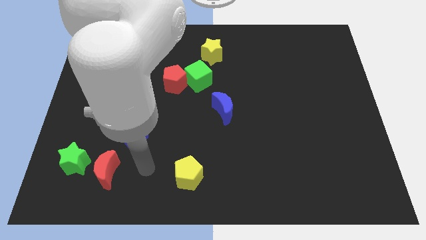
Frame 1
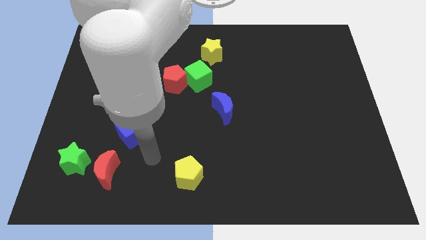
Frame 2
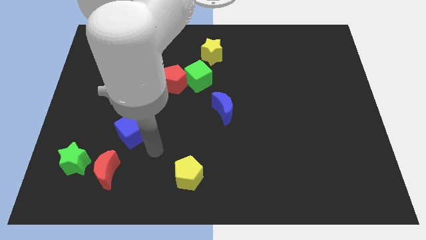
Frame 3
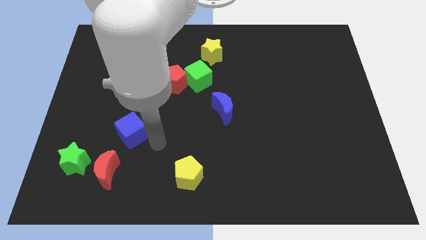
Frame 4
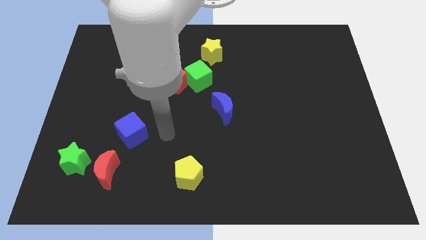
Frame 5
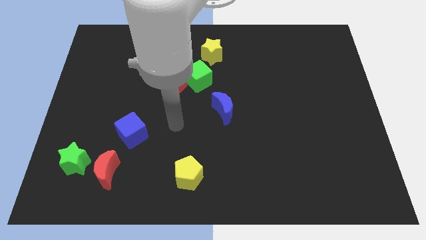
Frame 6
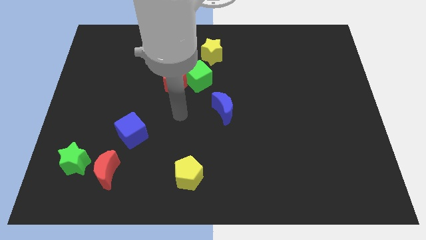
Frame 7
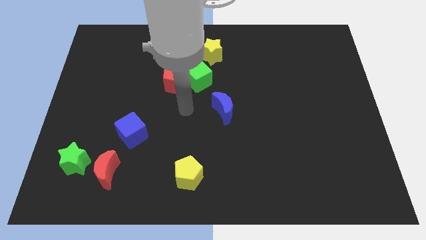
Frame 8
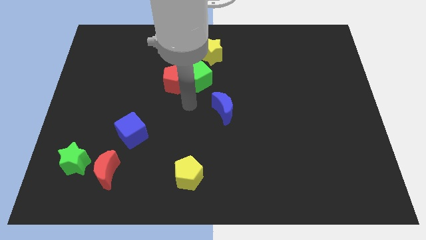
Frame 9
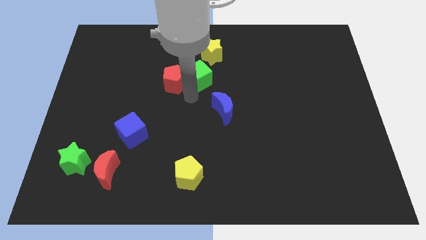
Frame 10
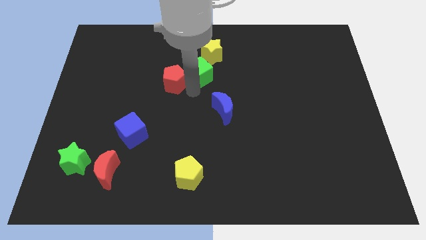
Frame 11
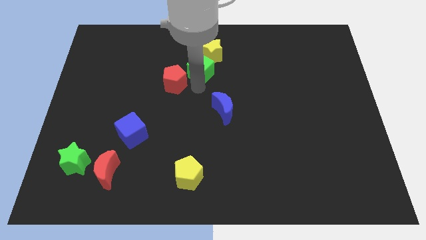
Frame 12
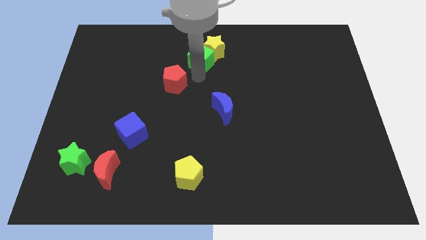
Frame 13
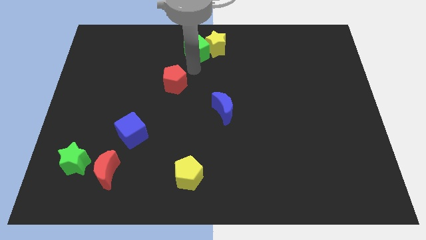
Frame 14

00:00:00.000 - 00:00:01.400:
pull the red pentagon apart from the green cube

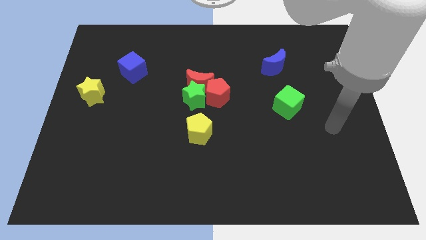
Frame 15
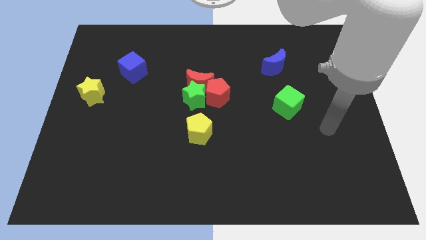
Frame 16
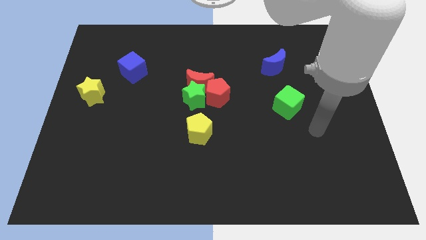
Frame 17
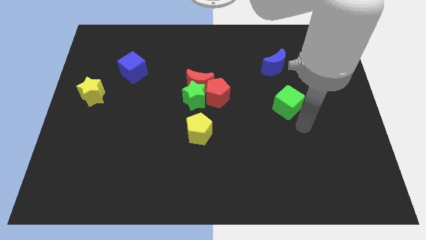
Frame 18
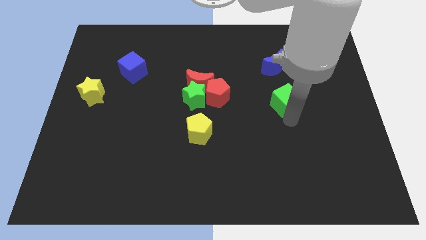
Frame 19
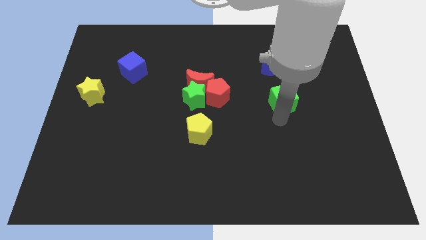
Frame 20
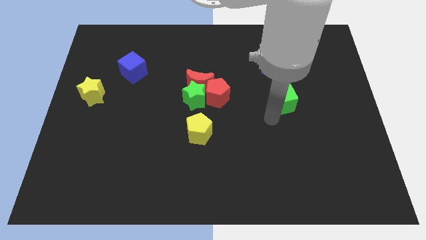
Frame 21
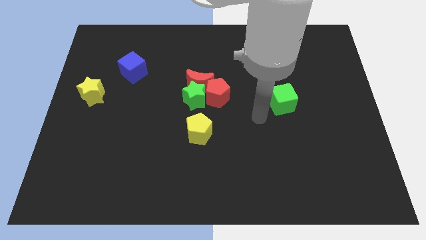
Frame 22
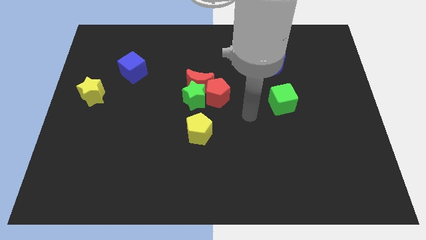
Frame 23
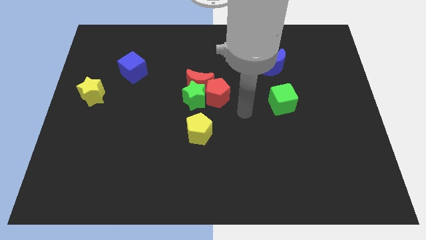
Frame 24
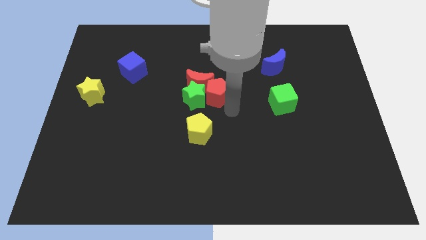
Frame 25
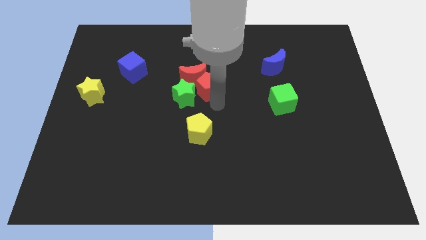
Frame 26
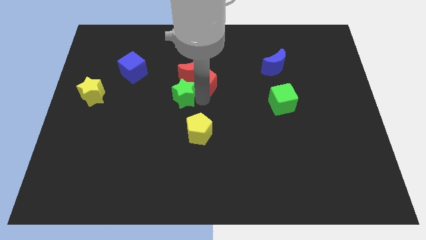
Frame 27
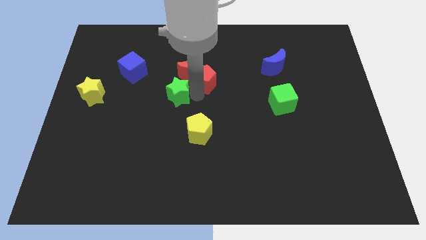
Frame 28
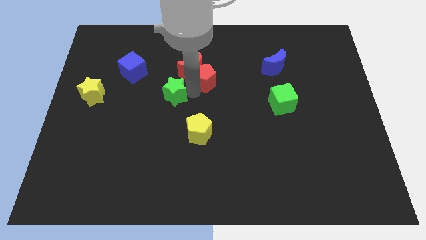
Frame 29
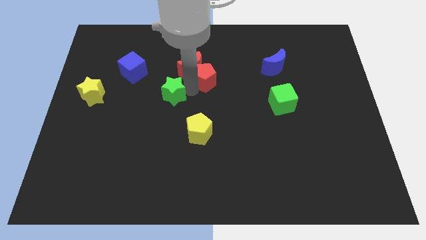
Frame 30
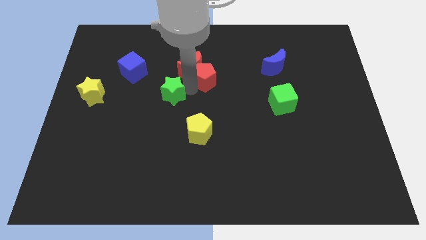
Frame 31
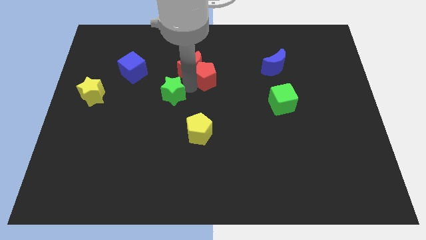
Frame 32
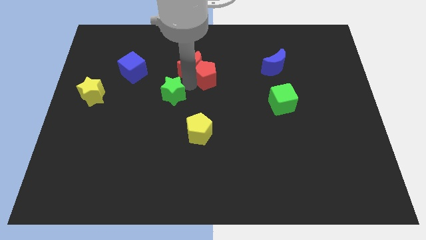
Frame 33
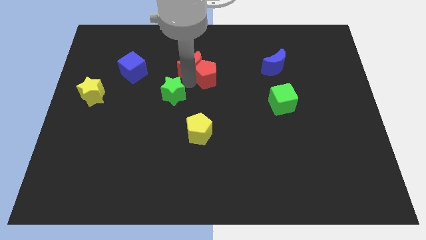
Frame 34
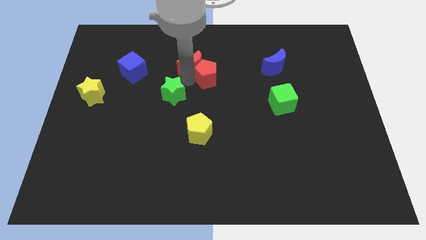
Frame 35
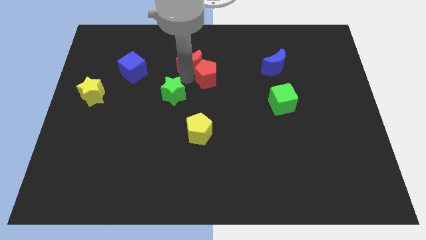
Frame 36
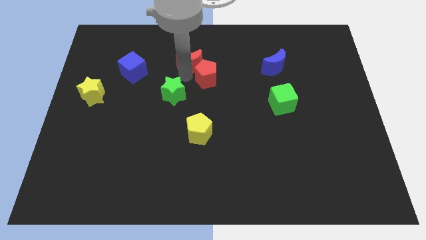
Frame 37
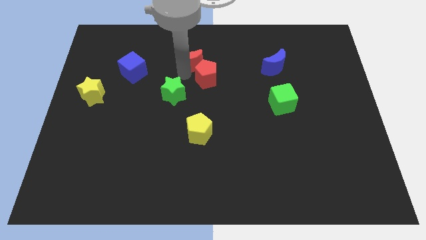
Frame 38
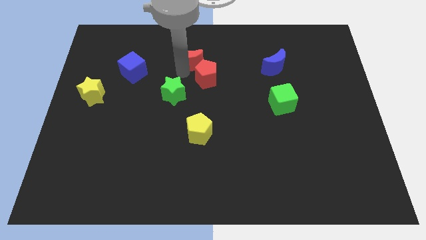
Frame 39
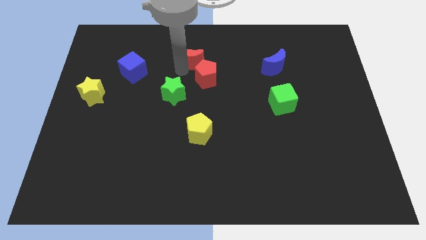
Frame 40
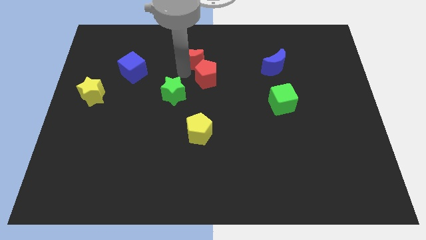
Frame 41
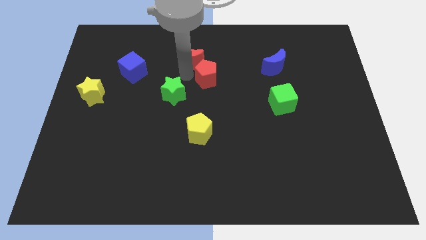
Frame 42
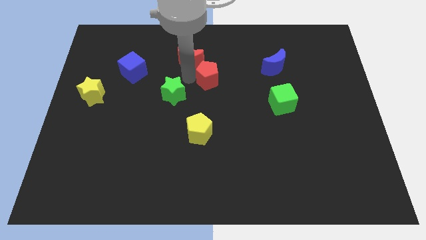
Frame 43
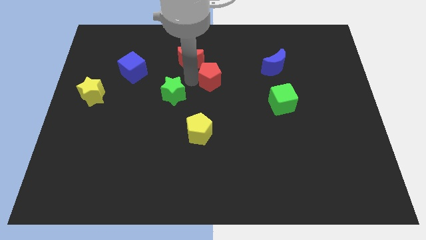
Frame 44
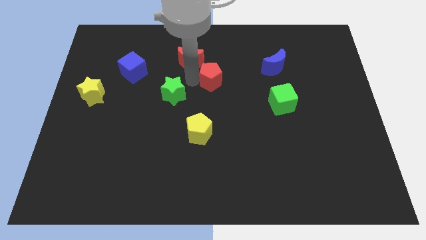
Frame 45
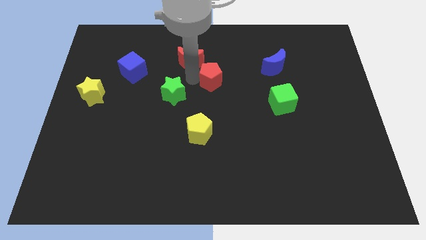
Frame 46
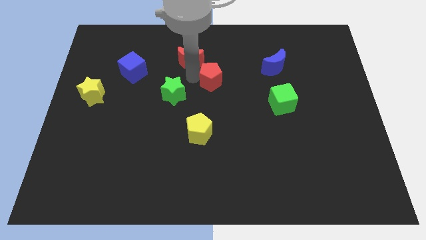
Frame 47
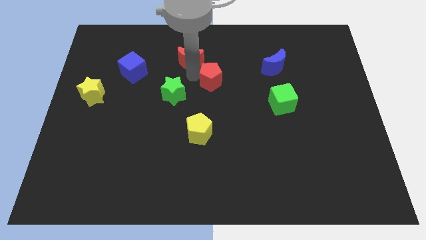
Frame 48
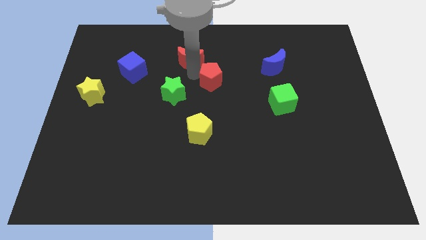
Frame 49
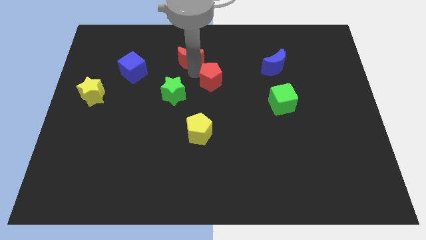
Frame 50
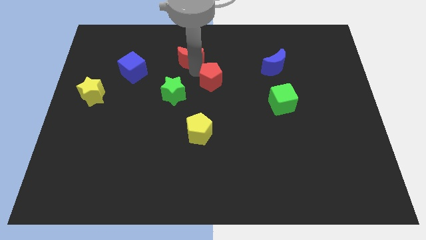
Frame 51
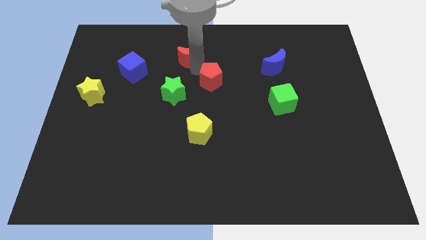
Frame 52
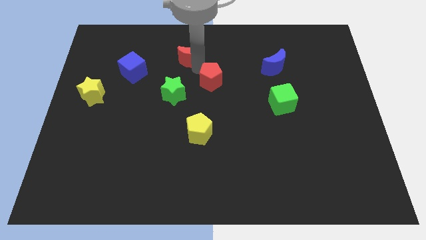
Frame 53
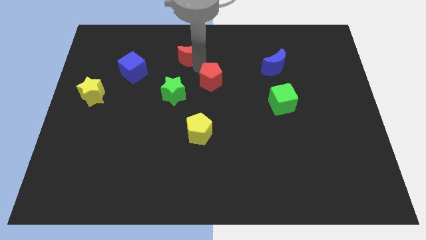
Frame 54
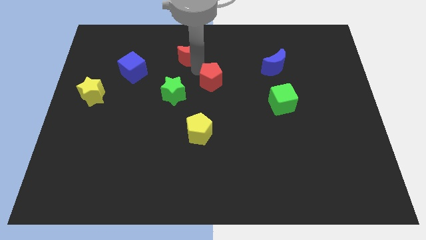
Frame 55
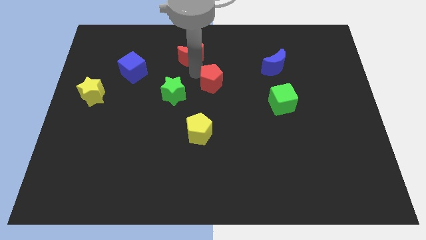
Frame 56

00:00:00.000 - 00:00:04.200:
separate the red moon from the green star and red pentagon

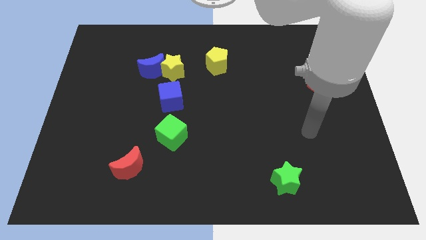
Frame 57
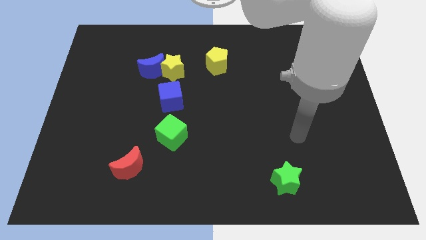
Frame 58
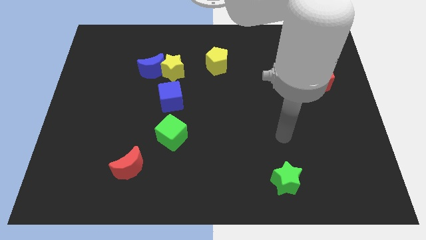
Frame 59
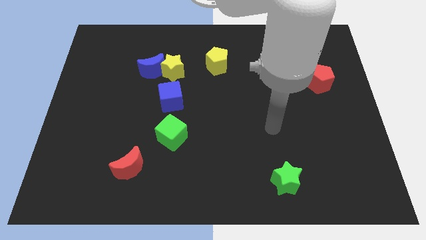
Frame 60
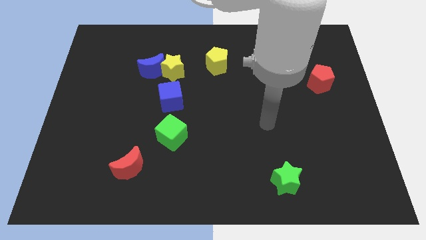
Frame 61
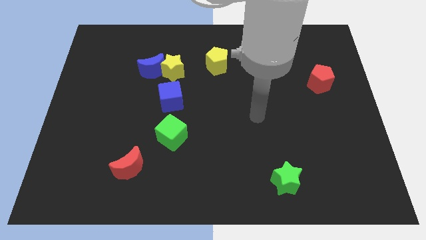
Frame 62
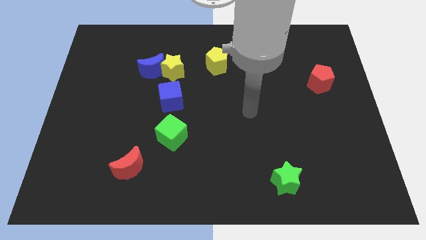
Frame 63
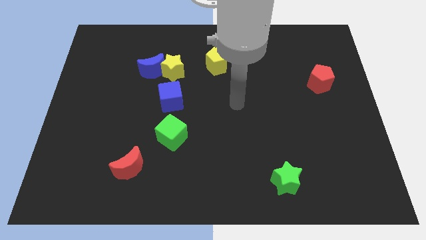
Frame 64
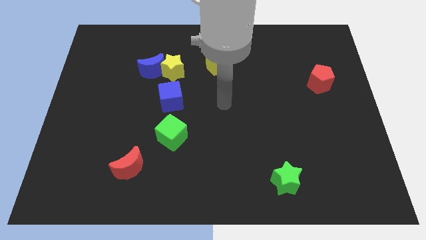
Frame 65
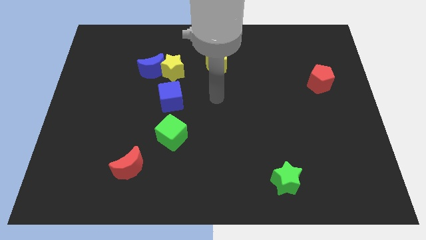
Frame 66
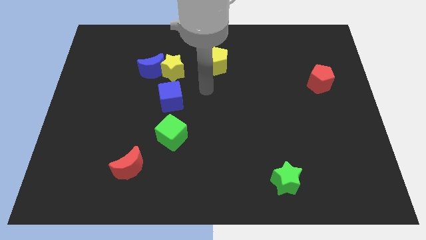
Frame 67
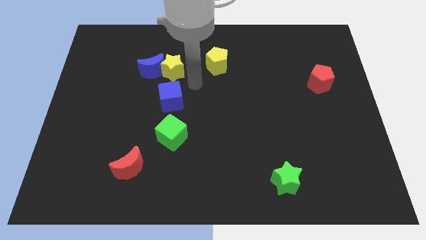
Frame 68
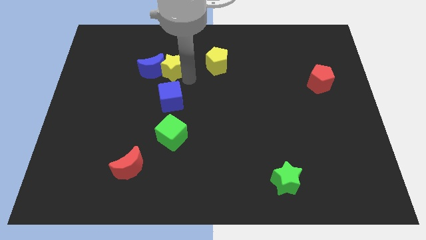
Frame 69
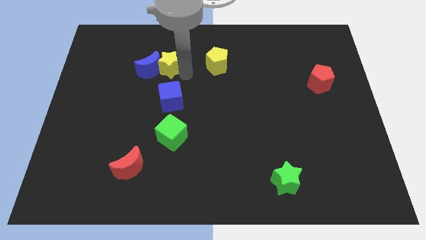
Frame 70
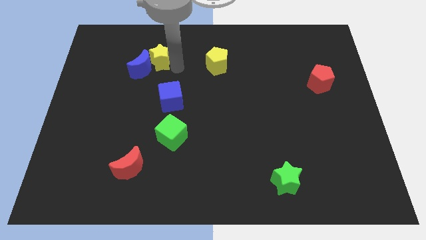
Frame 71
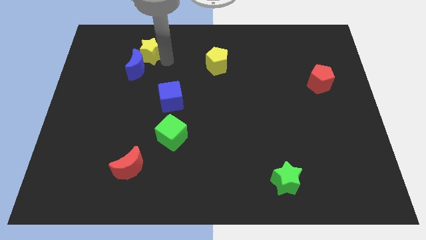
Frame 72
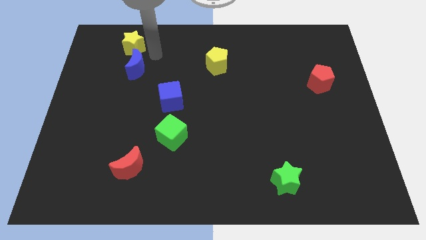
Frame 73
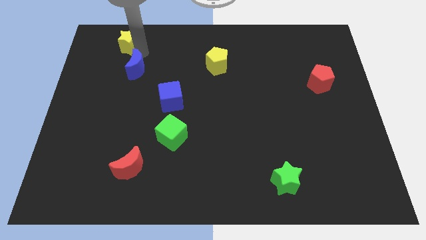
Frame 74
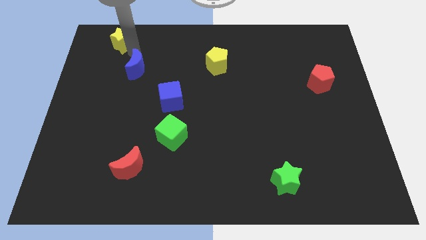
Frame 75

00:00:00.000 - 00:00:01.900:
separate the blue moon from the yellow star

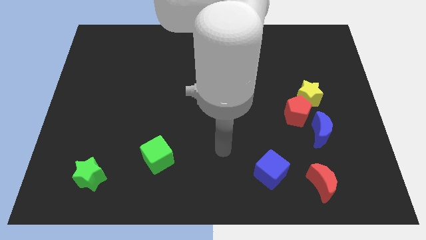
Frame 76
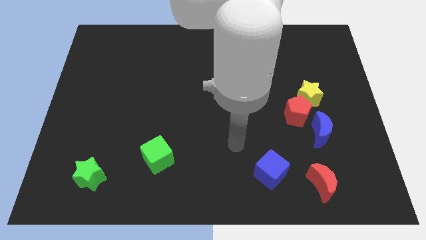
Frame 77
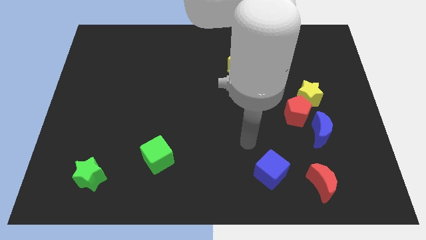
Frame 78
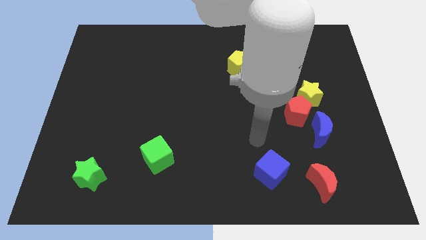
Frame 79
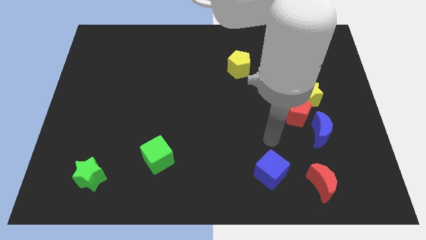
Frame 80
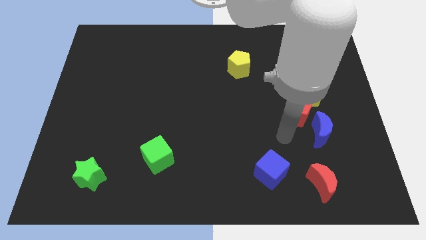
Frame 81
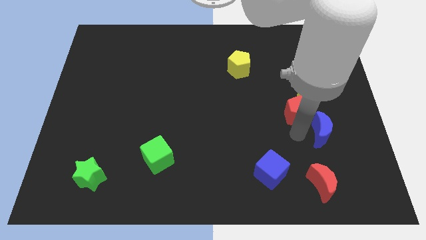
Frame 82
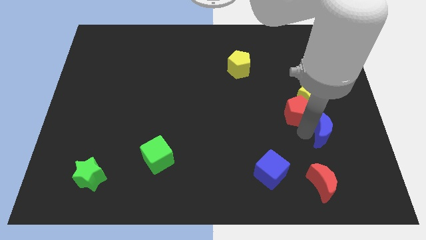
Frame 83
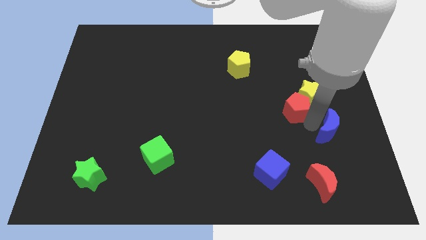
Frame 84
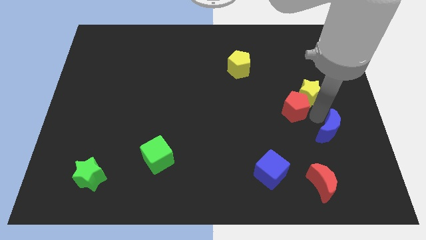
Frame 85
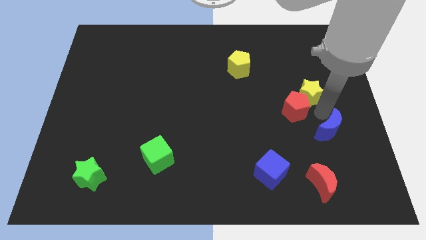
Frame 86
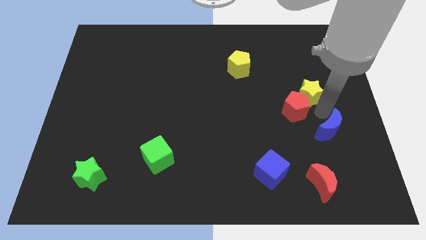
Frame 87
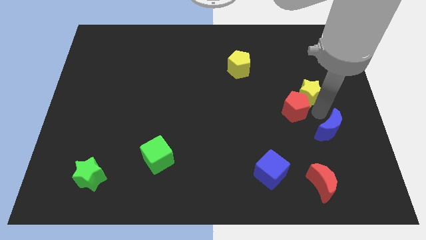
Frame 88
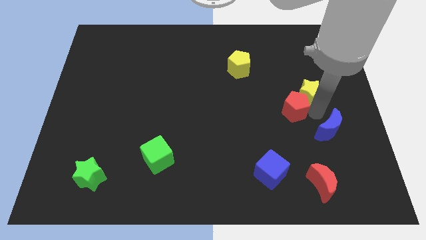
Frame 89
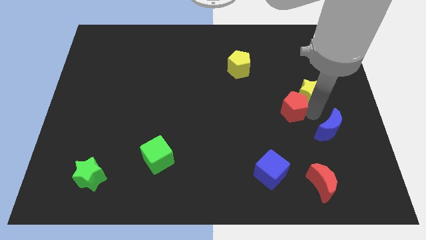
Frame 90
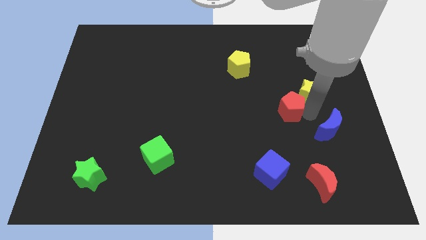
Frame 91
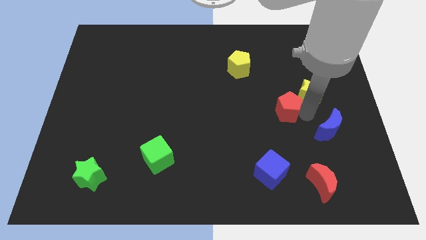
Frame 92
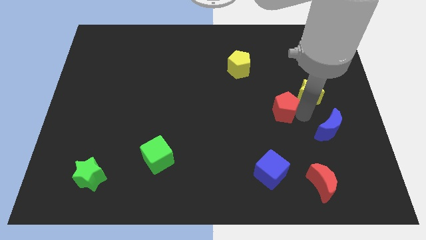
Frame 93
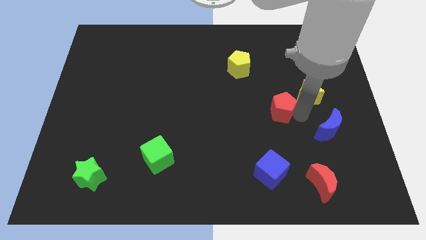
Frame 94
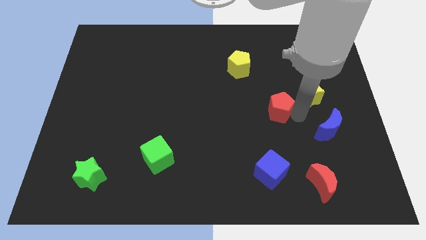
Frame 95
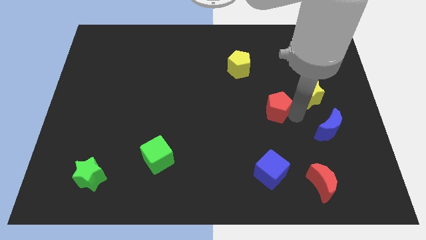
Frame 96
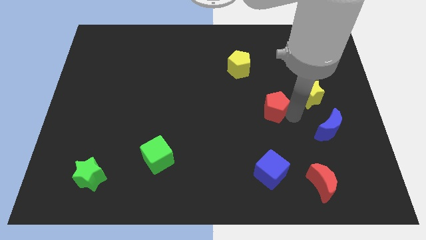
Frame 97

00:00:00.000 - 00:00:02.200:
separate the red pentagon from the yellow star and blue moon
